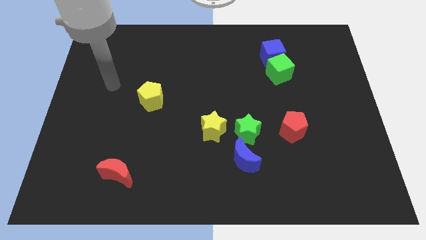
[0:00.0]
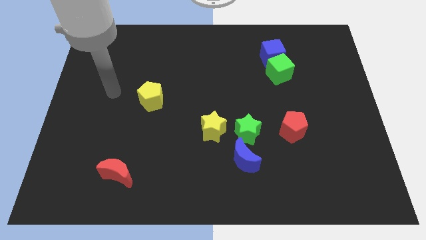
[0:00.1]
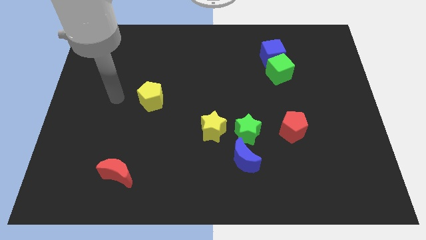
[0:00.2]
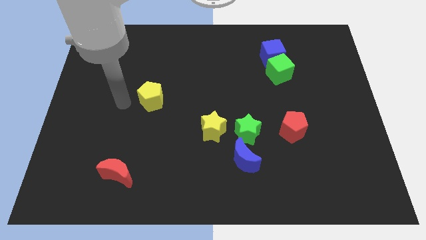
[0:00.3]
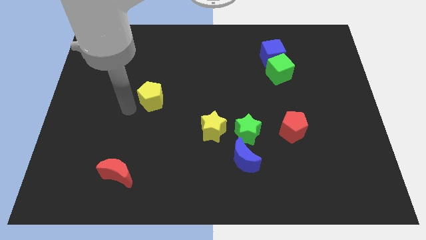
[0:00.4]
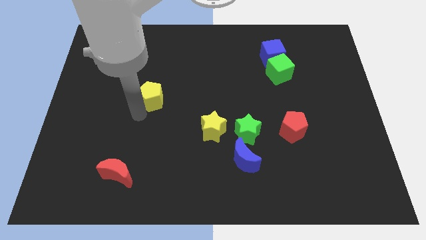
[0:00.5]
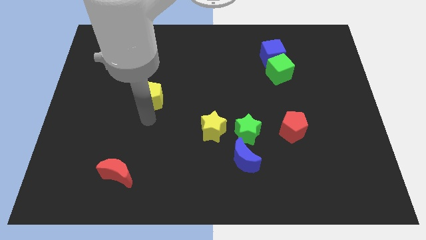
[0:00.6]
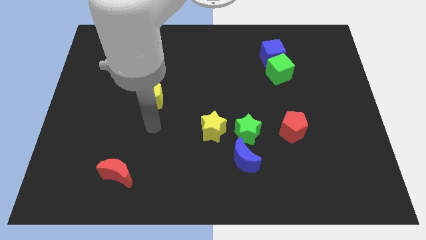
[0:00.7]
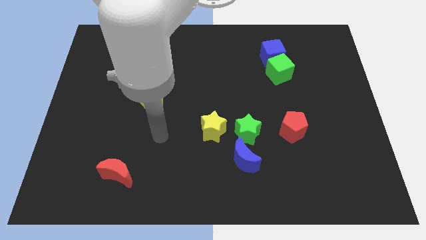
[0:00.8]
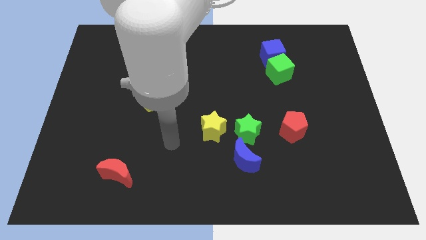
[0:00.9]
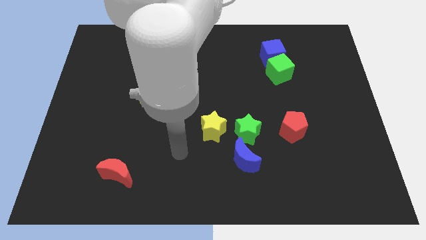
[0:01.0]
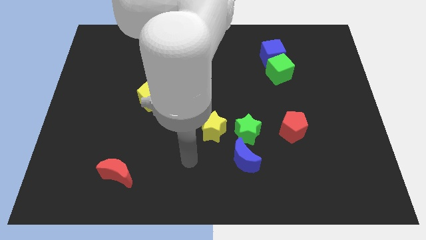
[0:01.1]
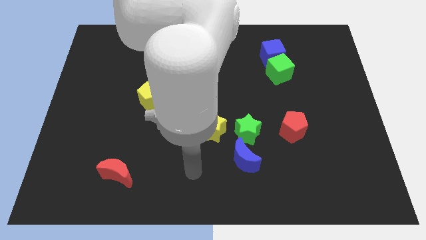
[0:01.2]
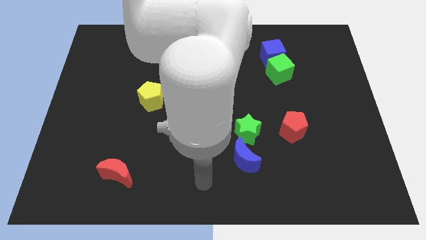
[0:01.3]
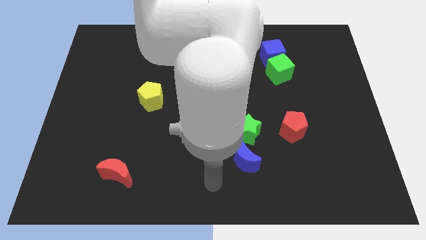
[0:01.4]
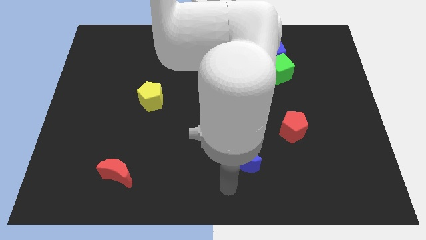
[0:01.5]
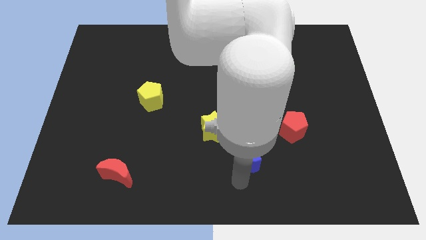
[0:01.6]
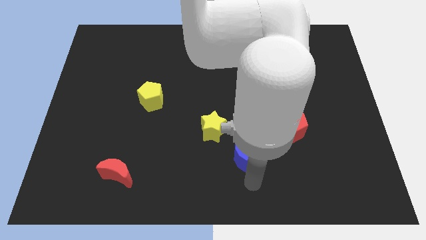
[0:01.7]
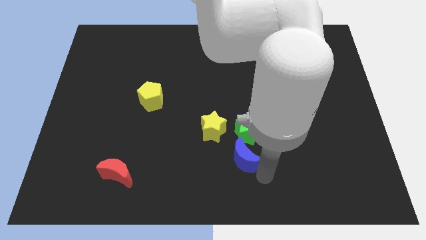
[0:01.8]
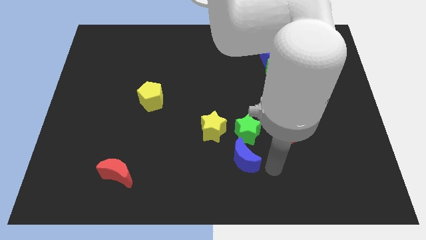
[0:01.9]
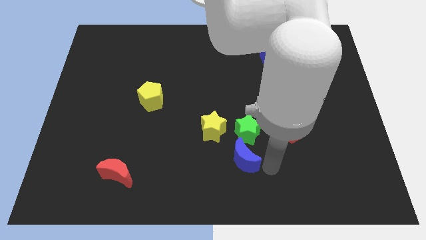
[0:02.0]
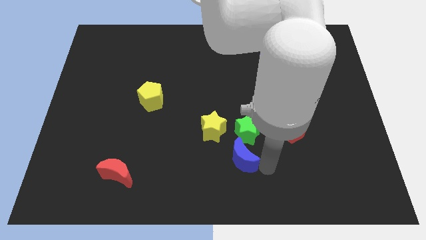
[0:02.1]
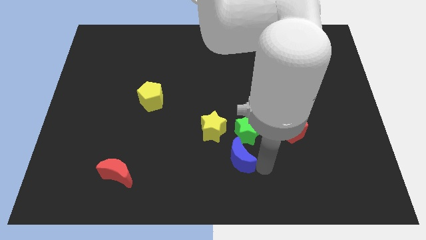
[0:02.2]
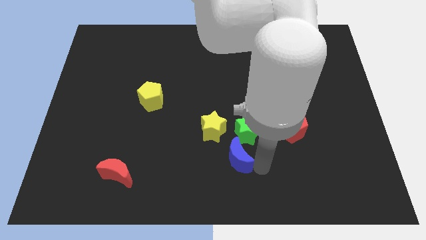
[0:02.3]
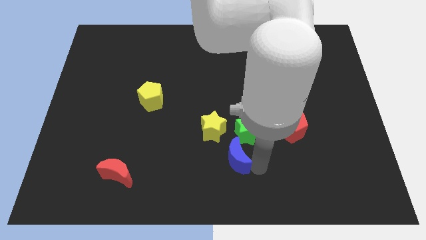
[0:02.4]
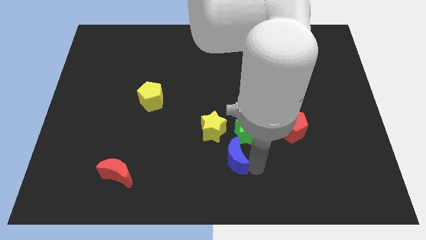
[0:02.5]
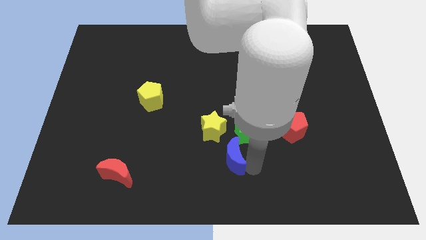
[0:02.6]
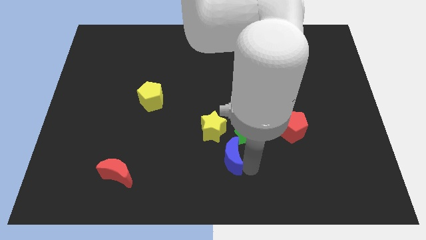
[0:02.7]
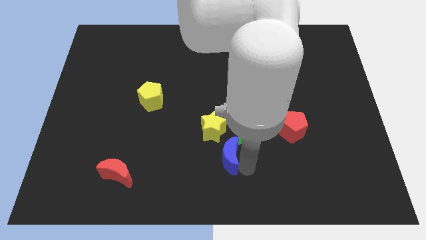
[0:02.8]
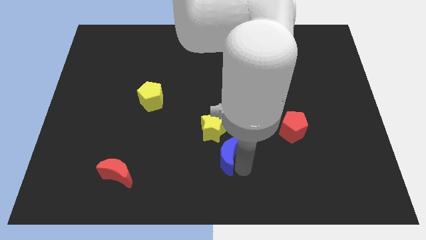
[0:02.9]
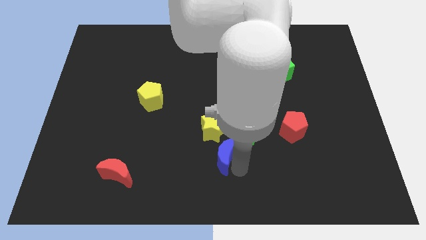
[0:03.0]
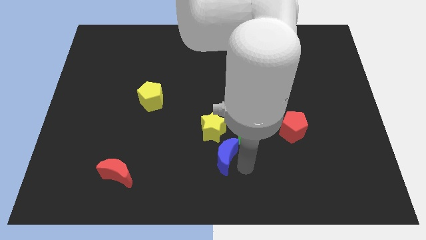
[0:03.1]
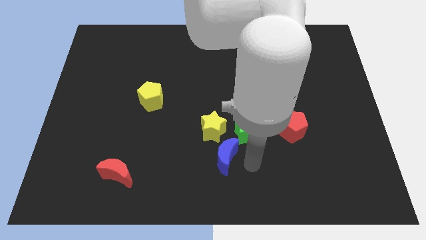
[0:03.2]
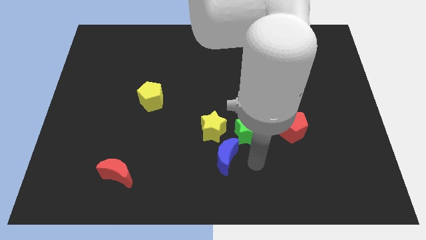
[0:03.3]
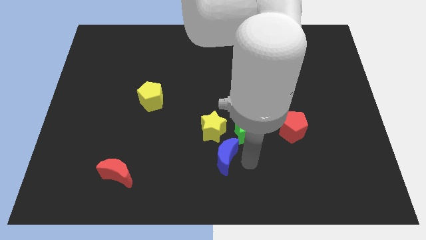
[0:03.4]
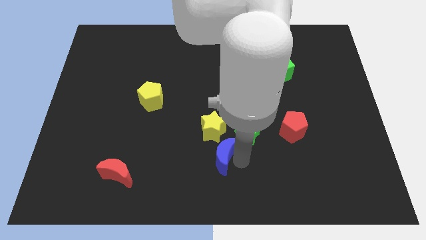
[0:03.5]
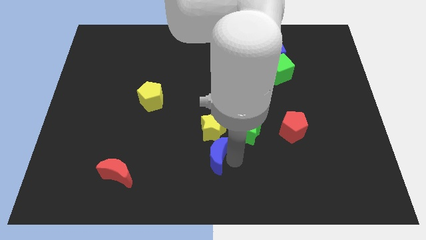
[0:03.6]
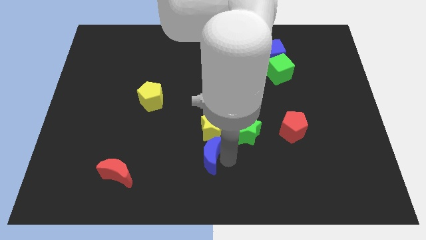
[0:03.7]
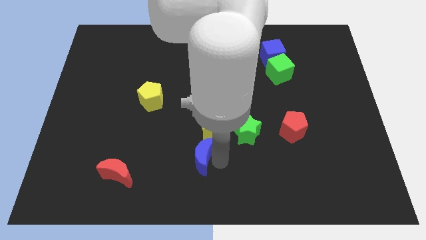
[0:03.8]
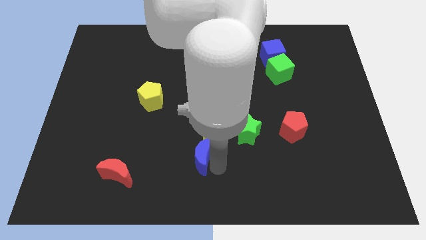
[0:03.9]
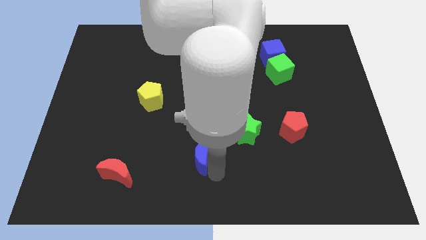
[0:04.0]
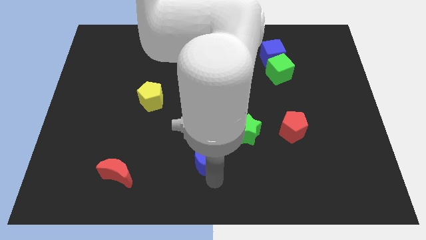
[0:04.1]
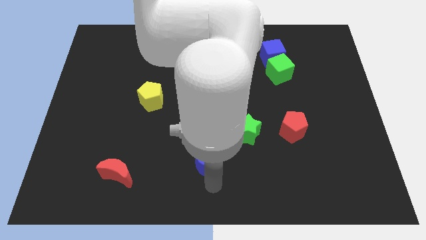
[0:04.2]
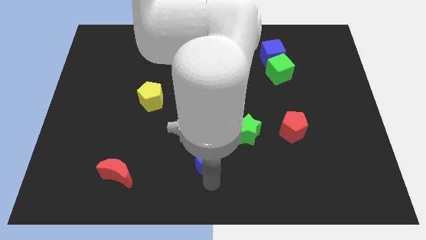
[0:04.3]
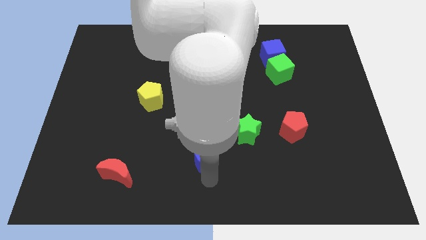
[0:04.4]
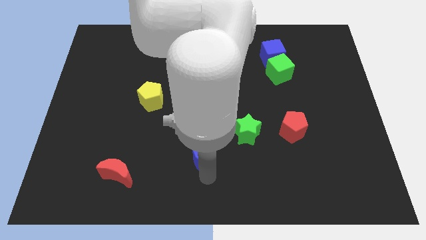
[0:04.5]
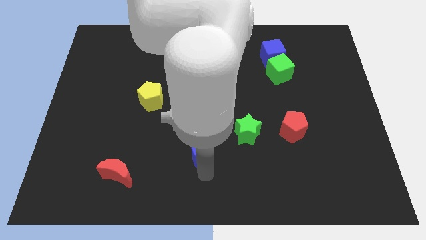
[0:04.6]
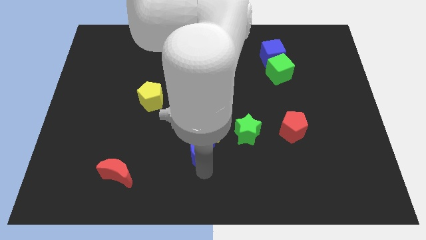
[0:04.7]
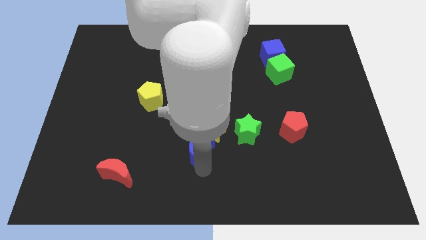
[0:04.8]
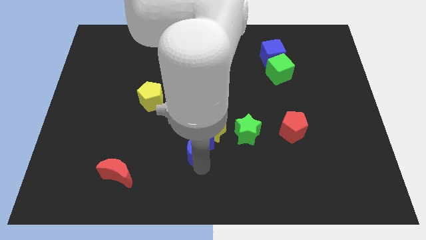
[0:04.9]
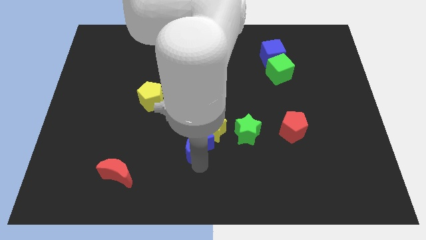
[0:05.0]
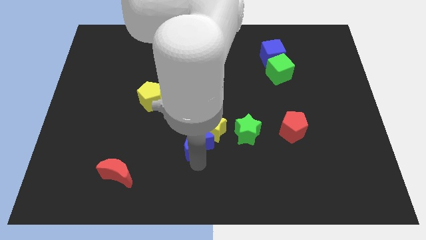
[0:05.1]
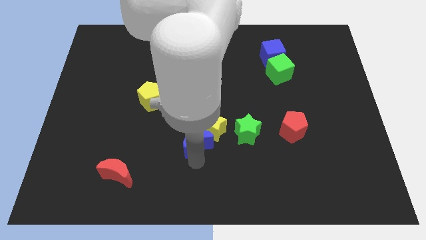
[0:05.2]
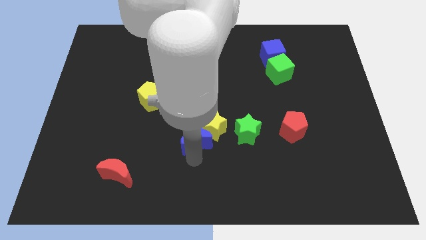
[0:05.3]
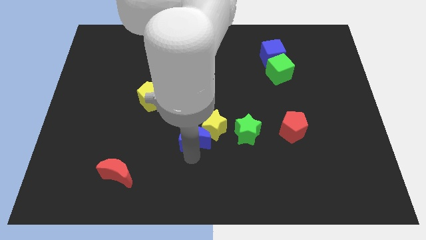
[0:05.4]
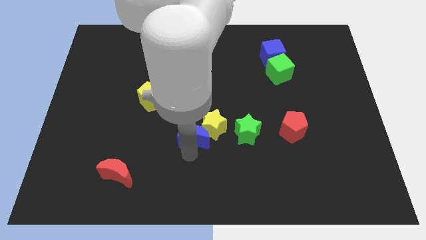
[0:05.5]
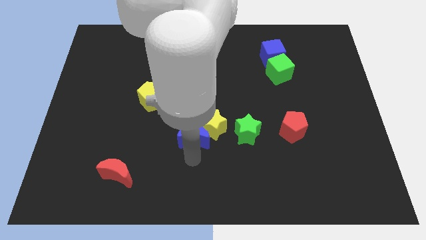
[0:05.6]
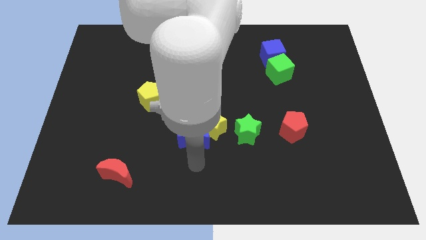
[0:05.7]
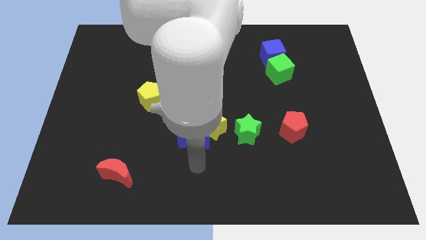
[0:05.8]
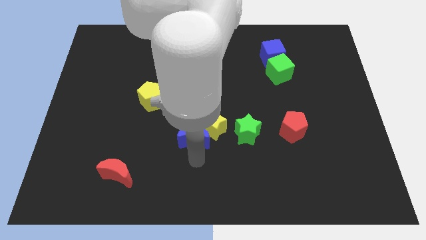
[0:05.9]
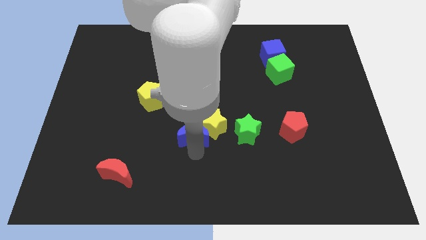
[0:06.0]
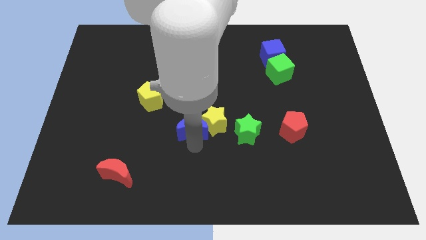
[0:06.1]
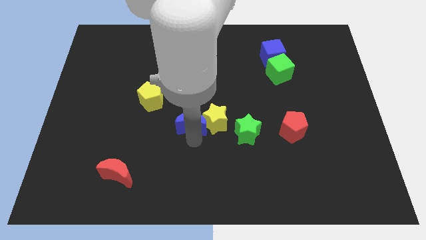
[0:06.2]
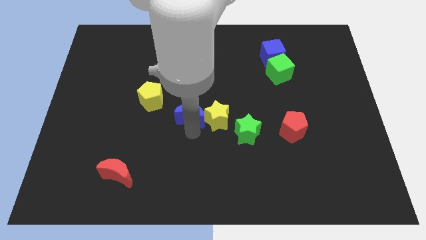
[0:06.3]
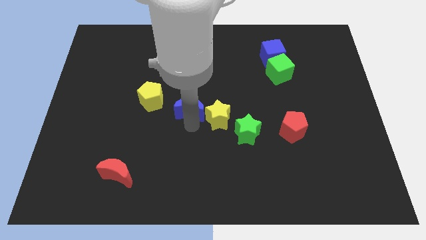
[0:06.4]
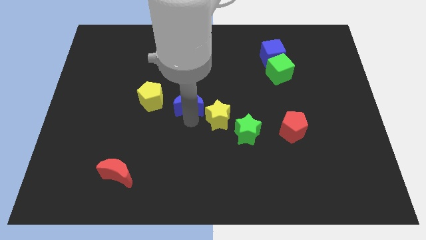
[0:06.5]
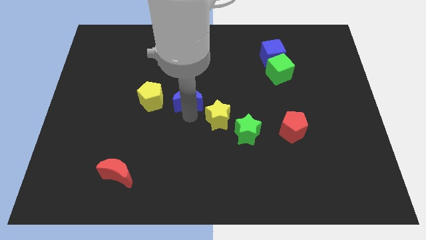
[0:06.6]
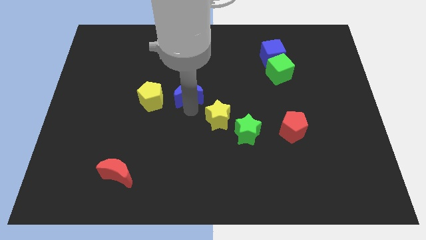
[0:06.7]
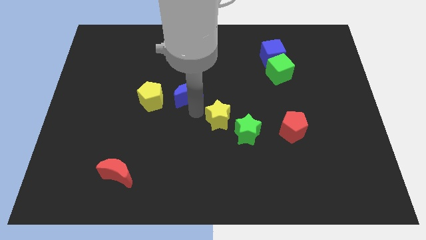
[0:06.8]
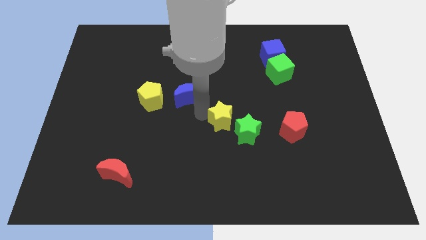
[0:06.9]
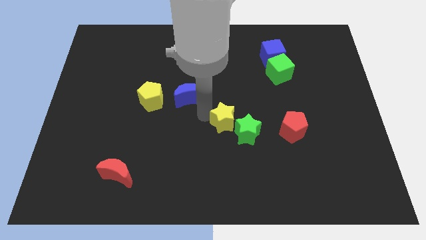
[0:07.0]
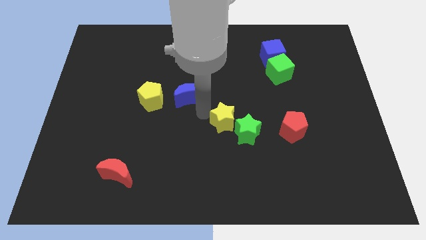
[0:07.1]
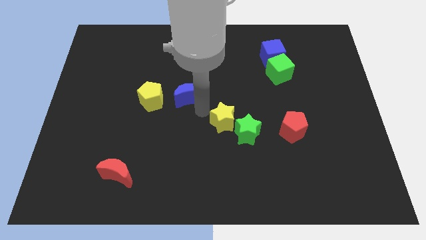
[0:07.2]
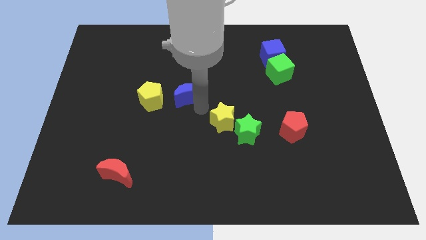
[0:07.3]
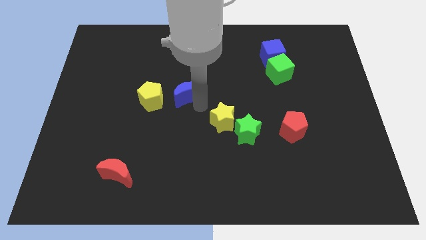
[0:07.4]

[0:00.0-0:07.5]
move the blue moon to the top right of the yellow pentagon
